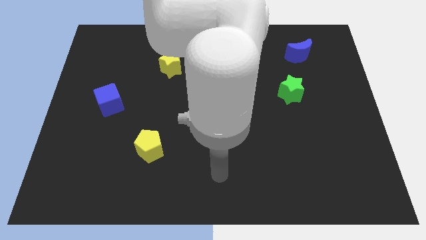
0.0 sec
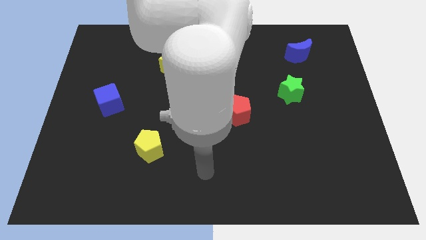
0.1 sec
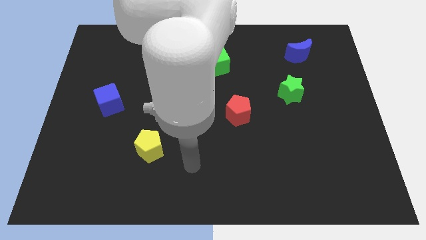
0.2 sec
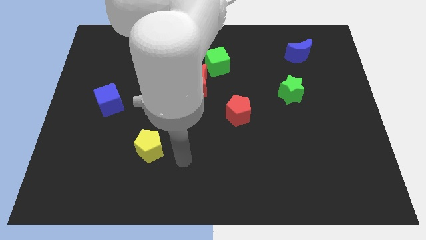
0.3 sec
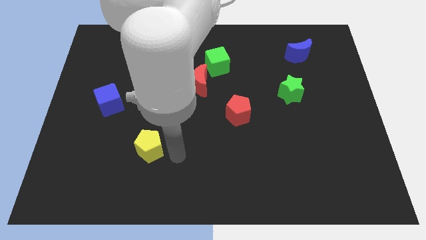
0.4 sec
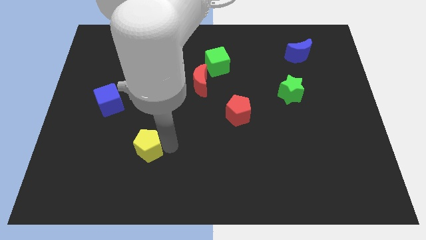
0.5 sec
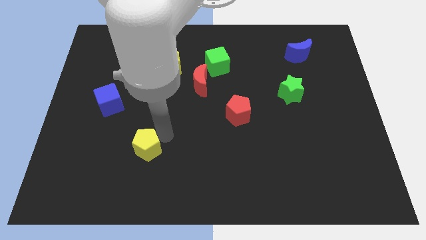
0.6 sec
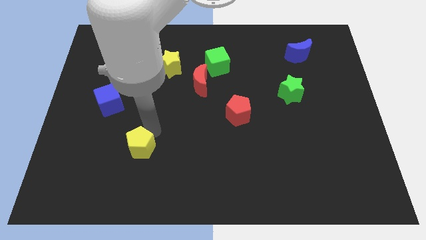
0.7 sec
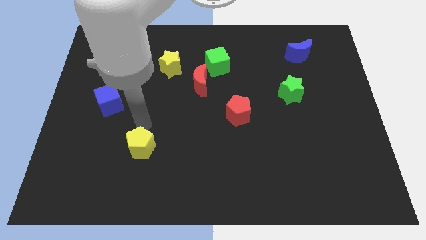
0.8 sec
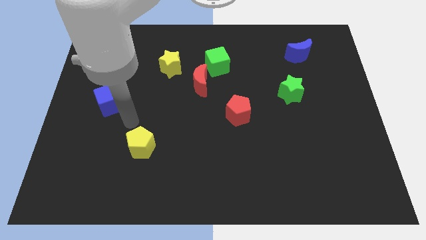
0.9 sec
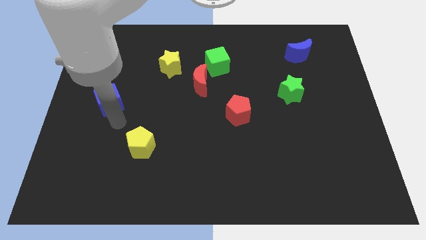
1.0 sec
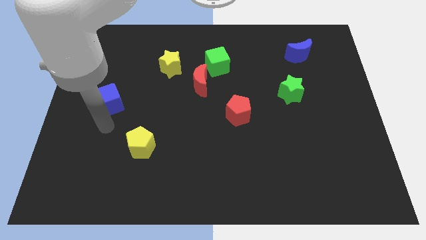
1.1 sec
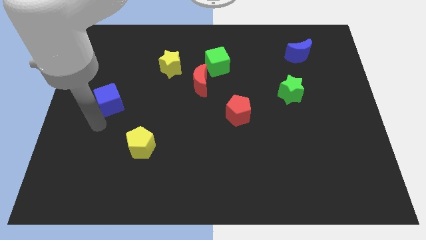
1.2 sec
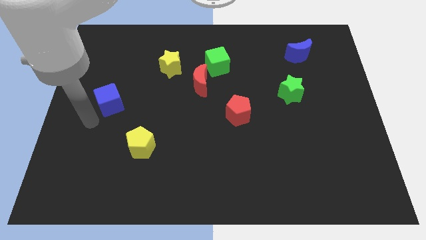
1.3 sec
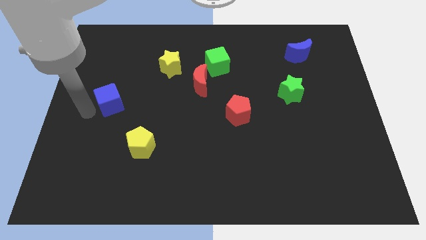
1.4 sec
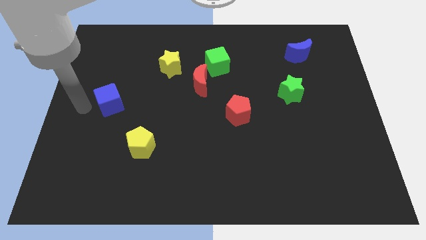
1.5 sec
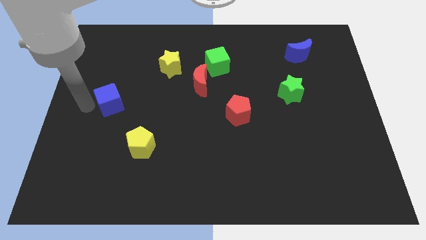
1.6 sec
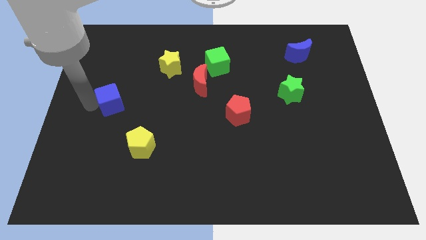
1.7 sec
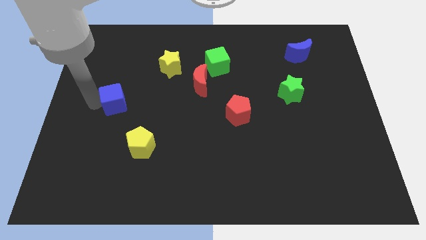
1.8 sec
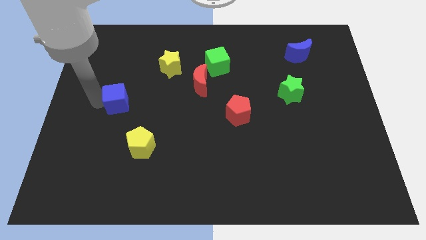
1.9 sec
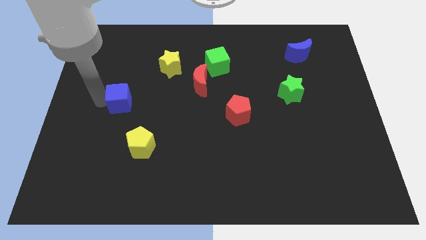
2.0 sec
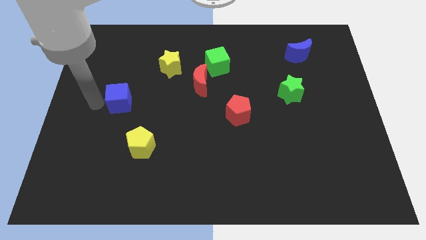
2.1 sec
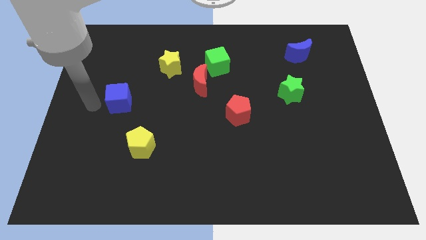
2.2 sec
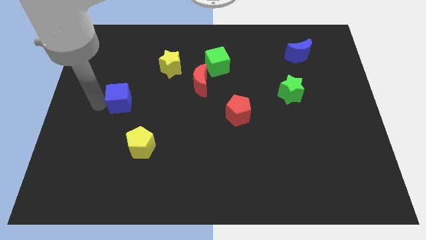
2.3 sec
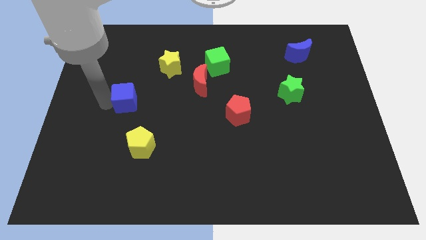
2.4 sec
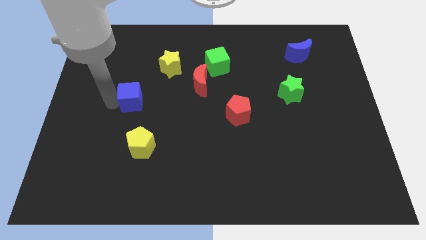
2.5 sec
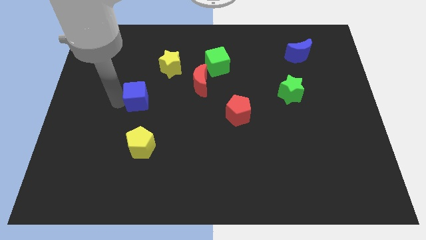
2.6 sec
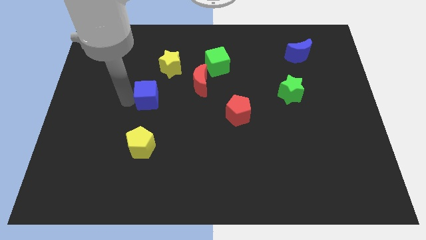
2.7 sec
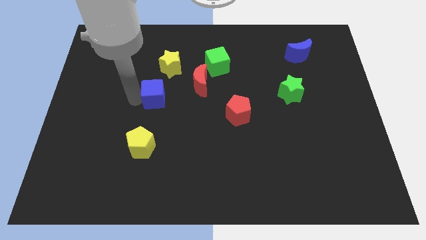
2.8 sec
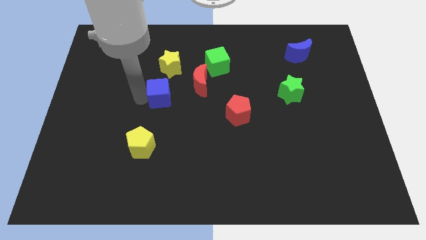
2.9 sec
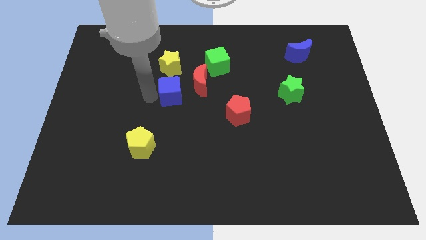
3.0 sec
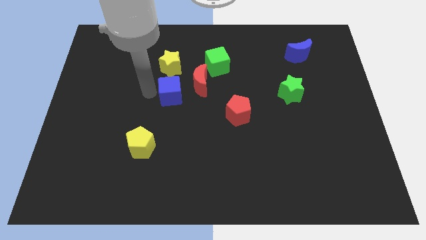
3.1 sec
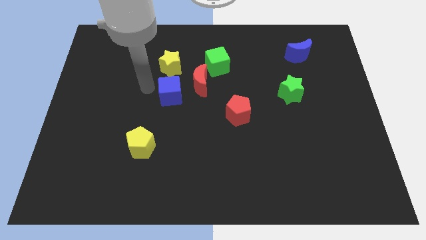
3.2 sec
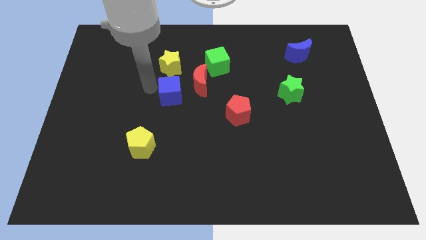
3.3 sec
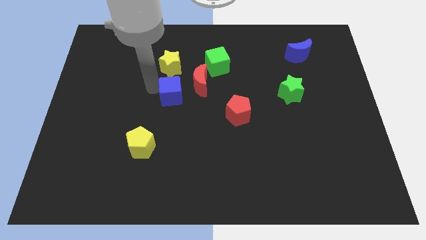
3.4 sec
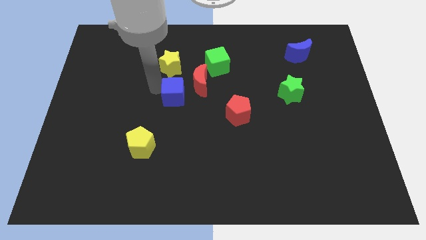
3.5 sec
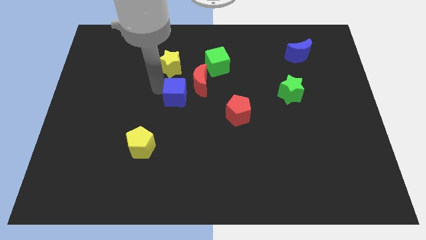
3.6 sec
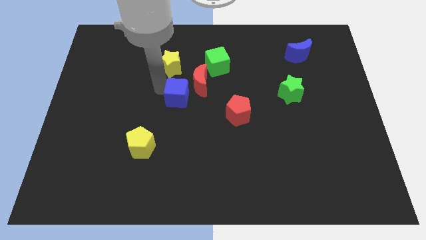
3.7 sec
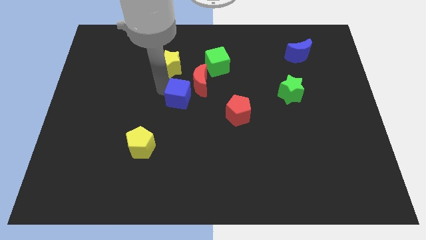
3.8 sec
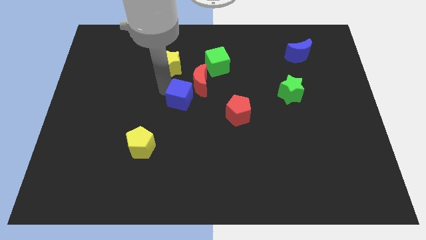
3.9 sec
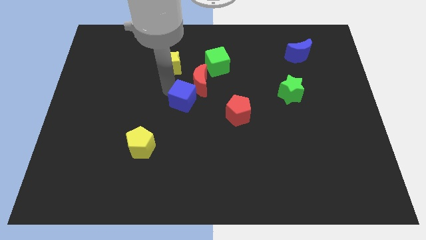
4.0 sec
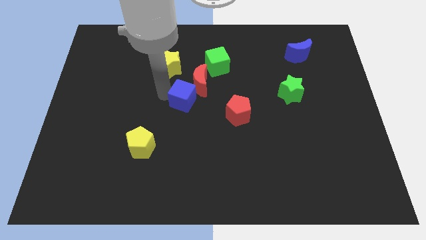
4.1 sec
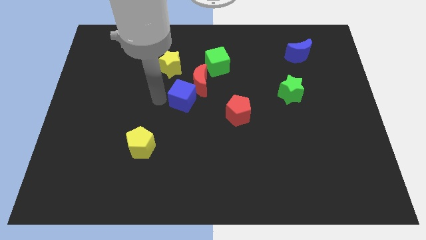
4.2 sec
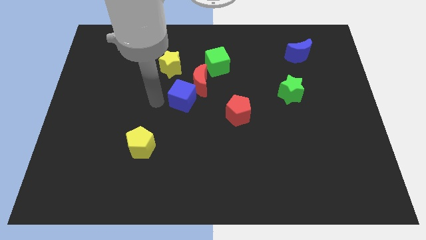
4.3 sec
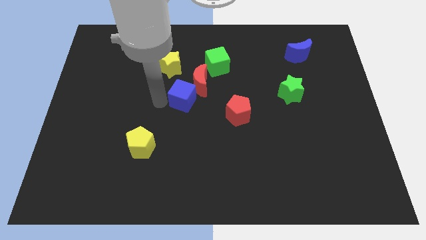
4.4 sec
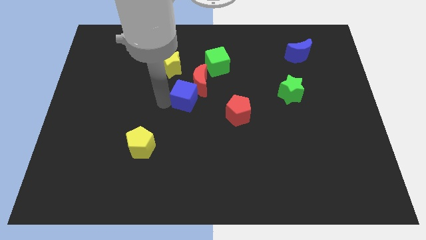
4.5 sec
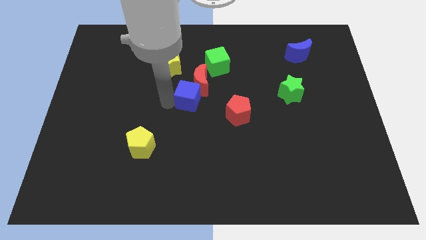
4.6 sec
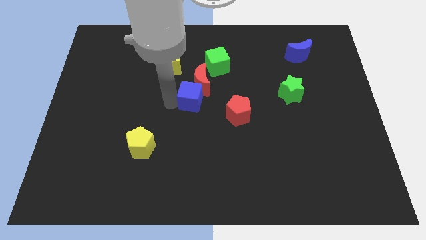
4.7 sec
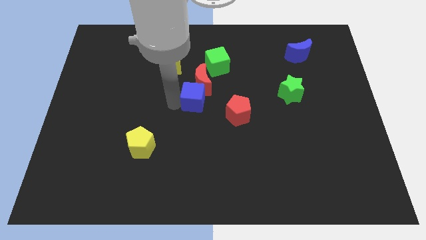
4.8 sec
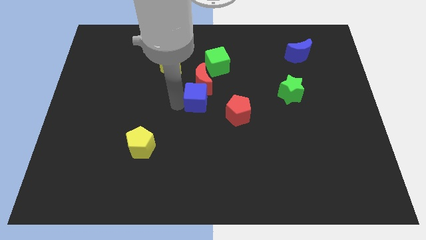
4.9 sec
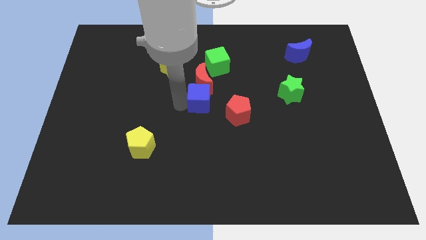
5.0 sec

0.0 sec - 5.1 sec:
slide the blue cube to the bottom of the green cube

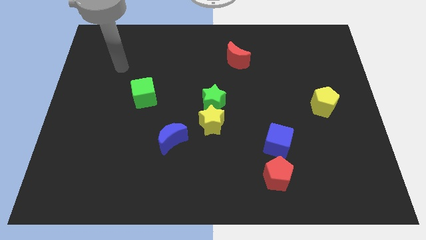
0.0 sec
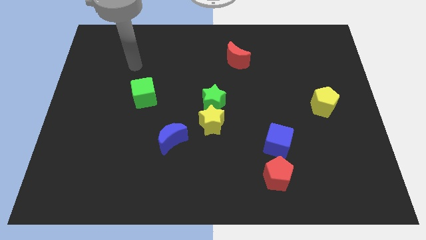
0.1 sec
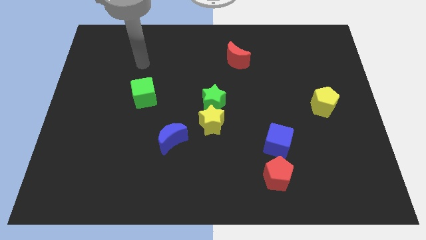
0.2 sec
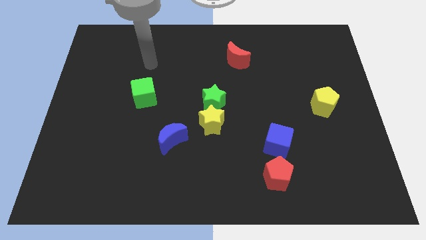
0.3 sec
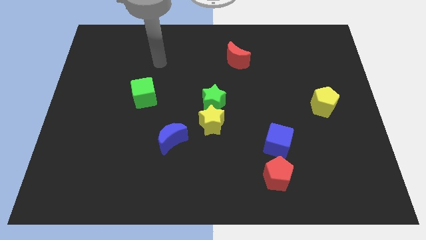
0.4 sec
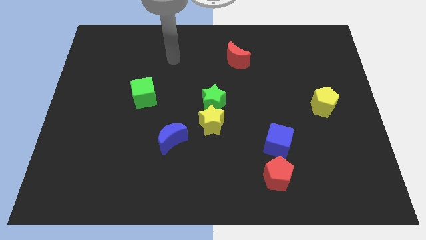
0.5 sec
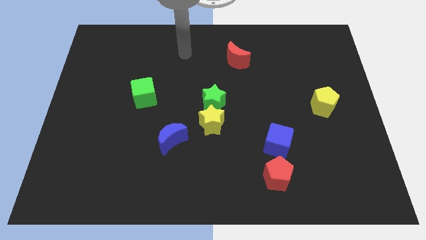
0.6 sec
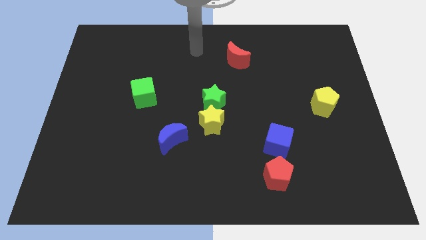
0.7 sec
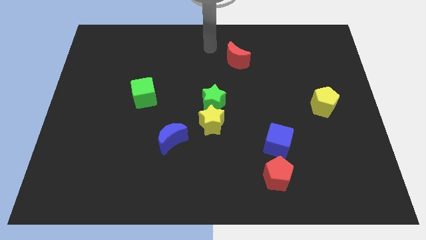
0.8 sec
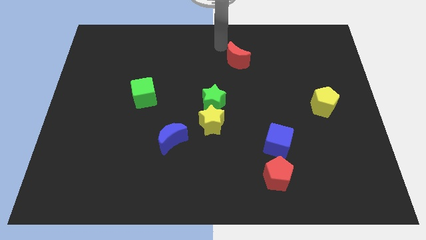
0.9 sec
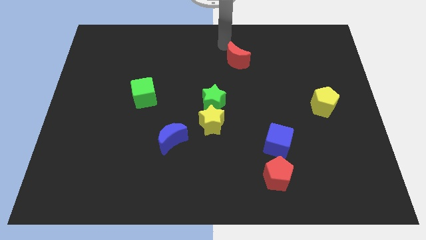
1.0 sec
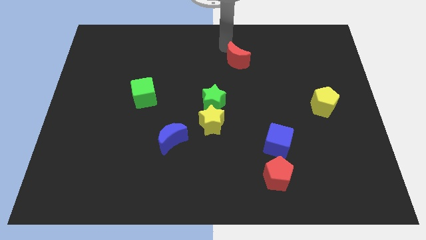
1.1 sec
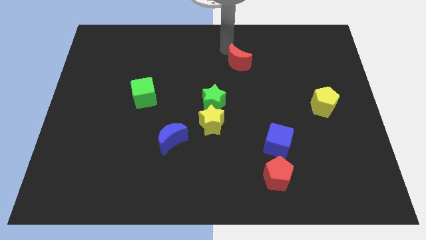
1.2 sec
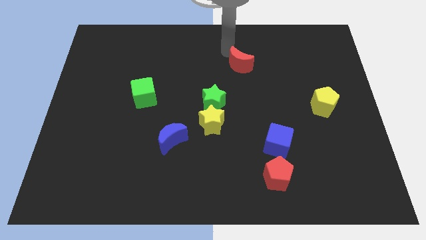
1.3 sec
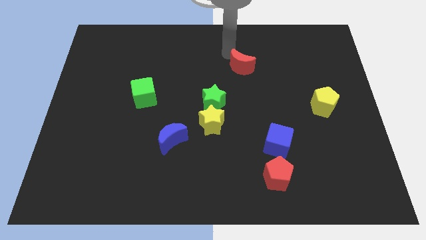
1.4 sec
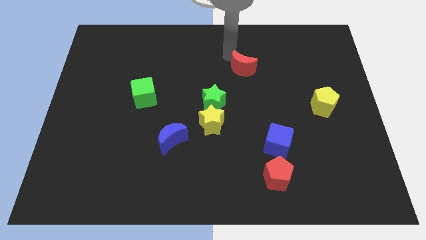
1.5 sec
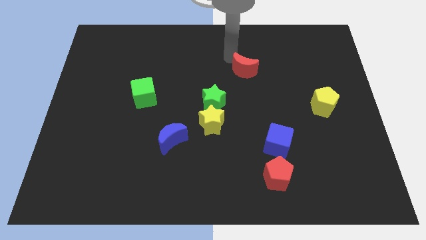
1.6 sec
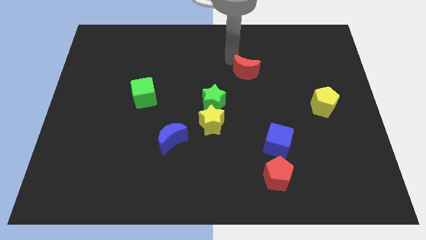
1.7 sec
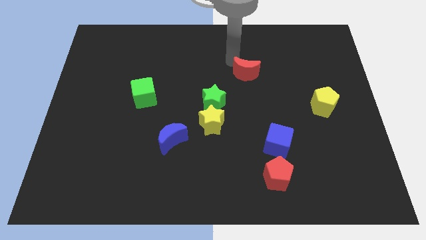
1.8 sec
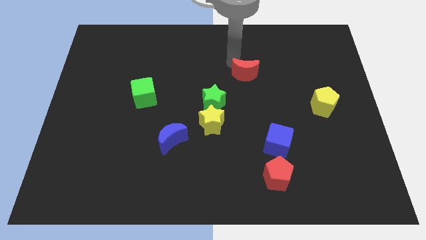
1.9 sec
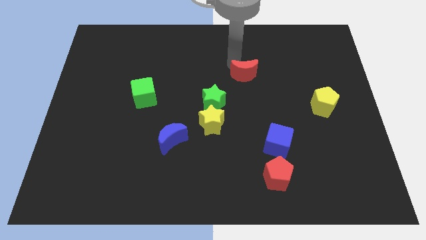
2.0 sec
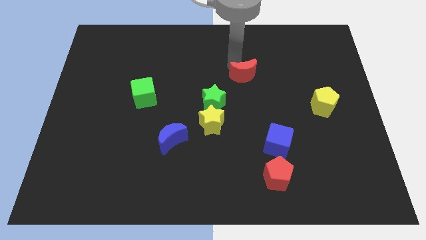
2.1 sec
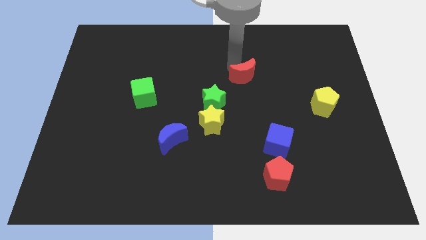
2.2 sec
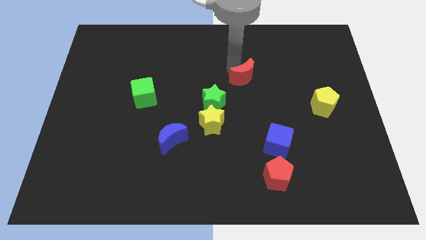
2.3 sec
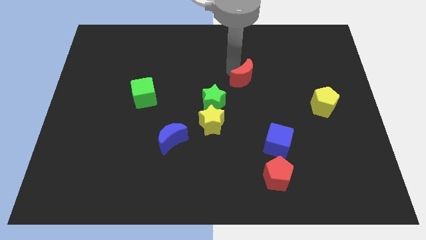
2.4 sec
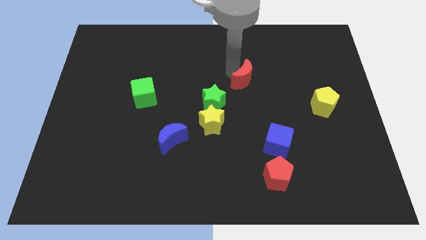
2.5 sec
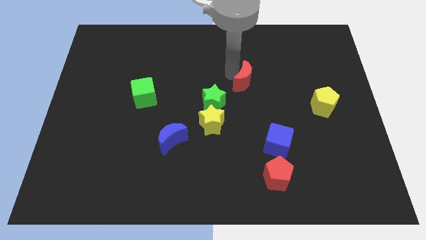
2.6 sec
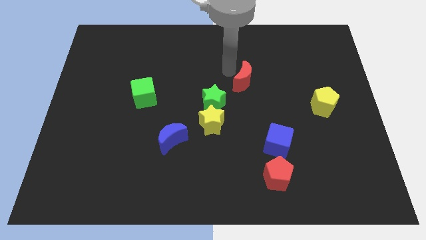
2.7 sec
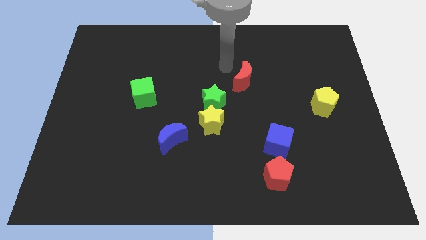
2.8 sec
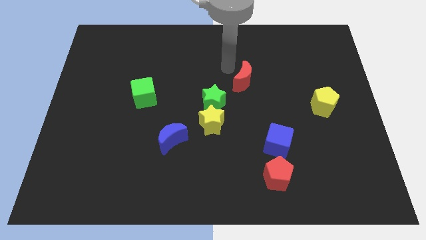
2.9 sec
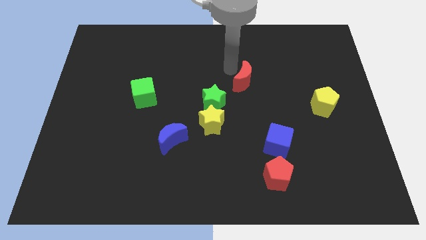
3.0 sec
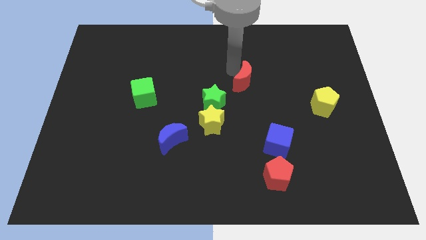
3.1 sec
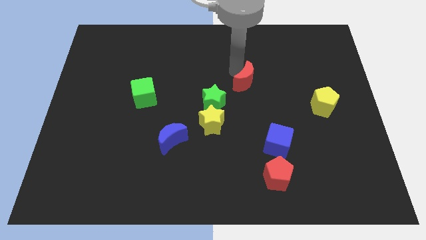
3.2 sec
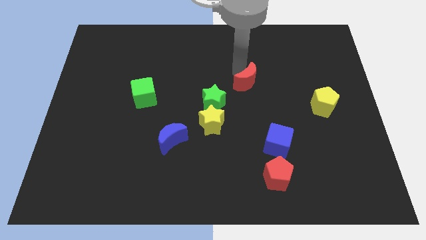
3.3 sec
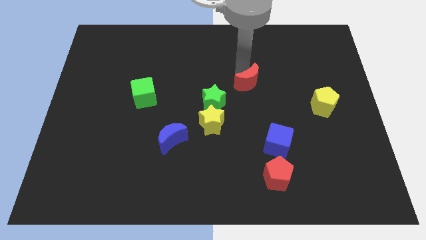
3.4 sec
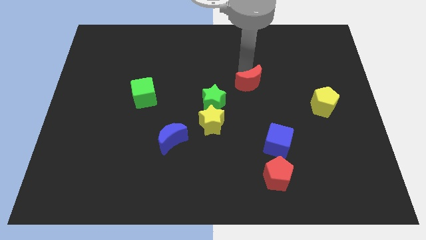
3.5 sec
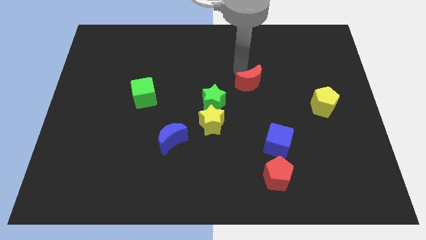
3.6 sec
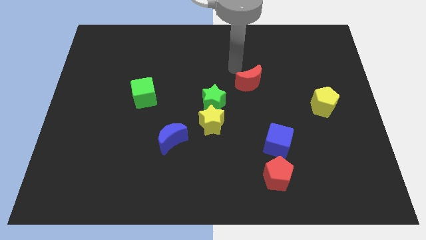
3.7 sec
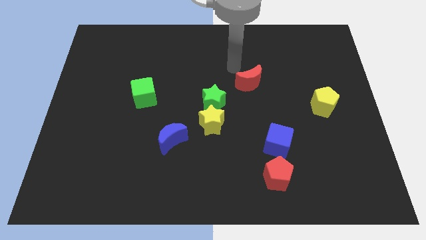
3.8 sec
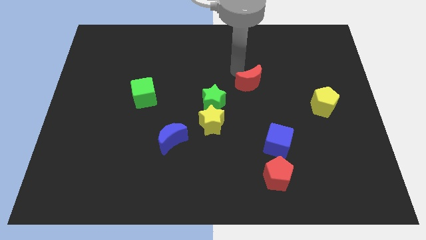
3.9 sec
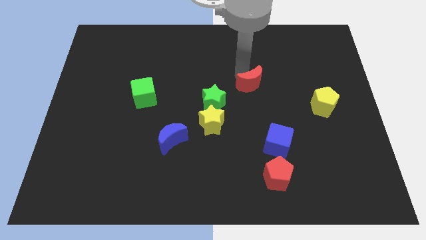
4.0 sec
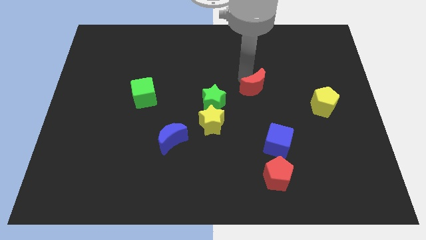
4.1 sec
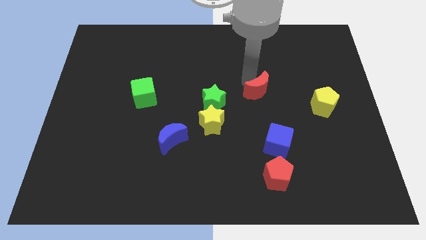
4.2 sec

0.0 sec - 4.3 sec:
push the red moon to the top side of the blue cube
